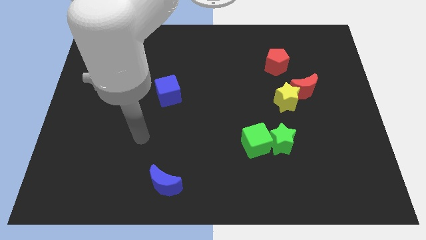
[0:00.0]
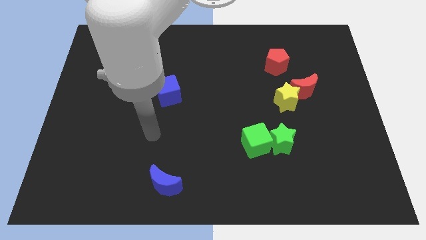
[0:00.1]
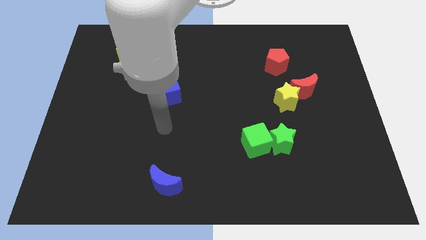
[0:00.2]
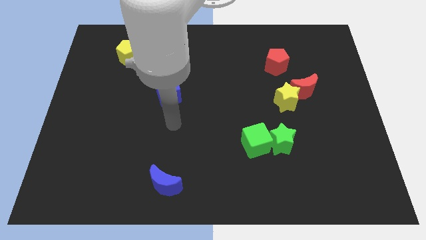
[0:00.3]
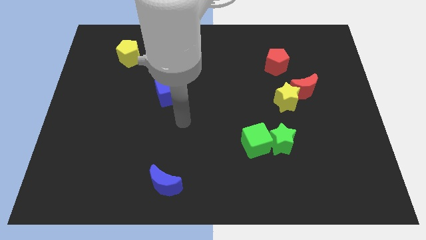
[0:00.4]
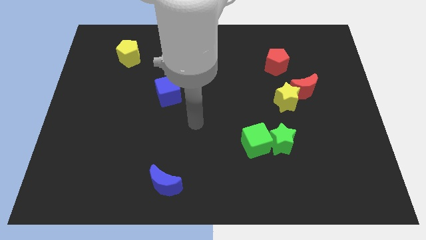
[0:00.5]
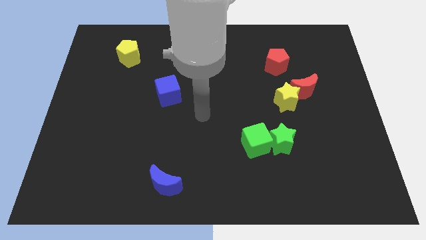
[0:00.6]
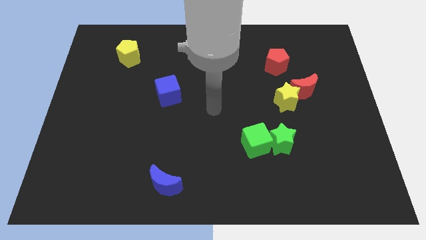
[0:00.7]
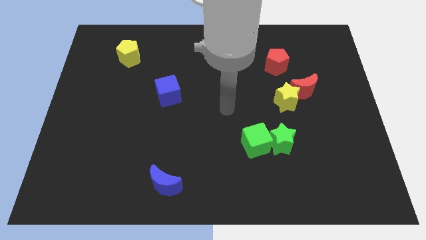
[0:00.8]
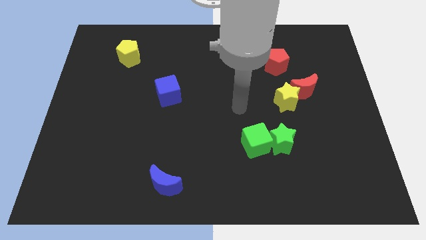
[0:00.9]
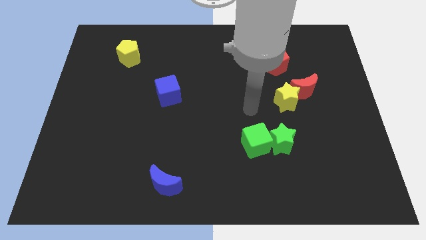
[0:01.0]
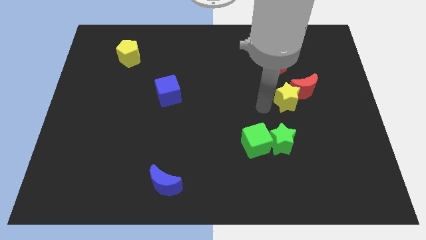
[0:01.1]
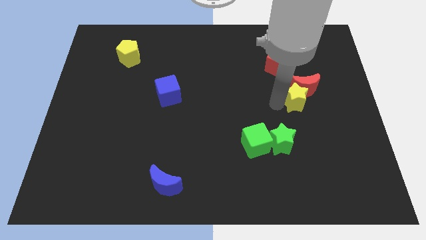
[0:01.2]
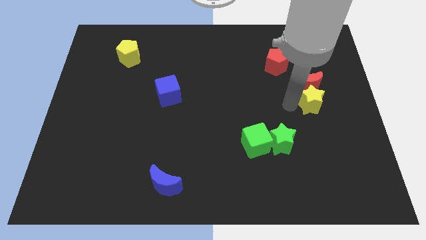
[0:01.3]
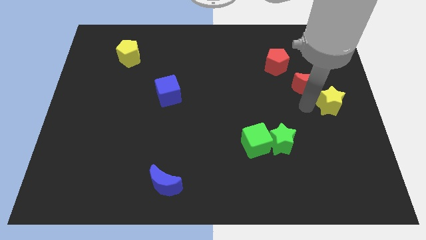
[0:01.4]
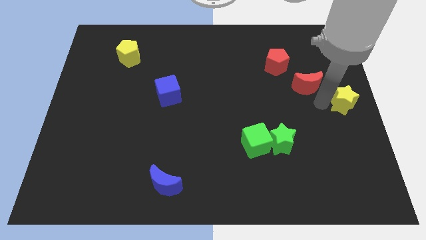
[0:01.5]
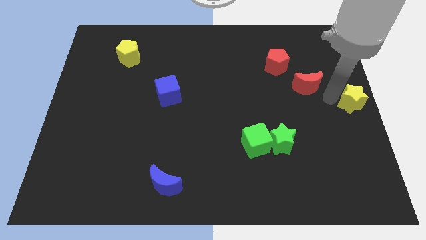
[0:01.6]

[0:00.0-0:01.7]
separate the red moon from the yellow star

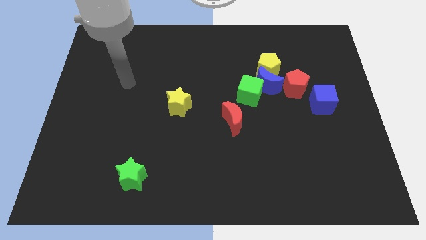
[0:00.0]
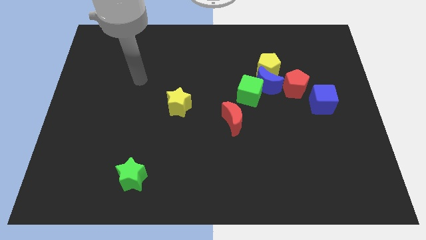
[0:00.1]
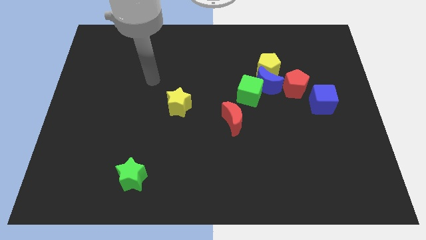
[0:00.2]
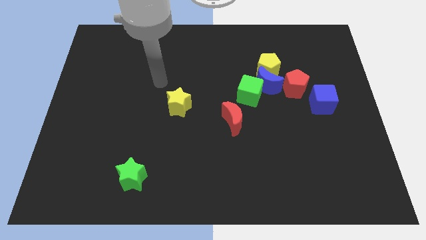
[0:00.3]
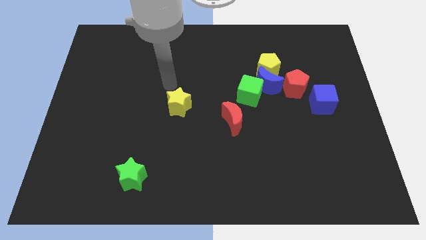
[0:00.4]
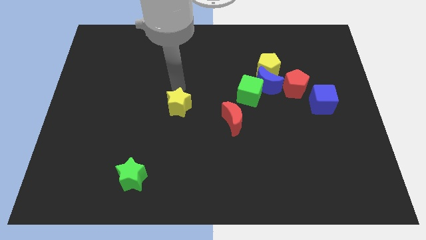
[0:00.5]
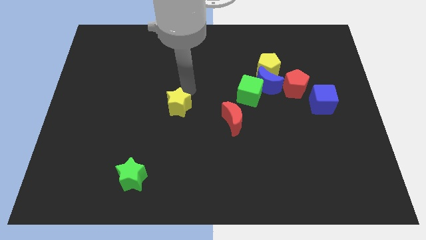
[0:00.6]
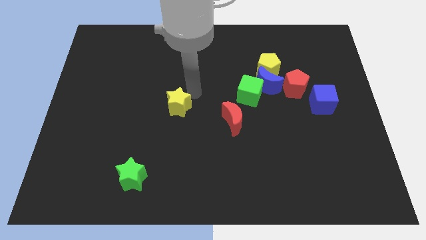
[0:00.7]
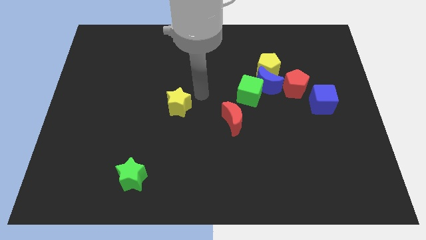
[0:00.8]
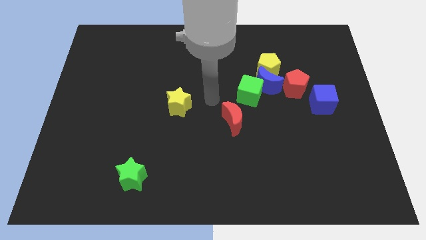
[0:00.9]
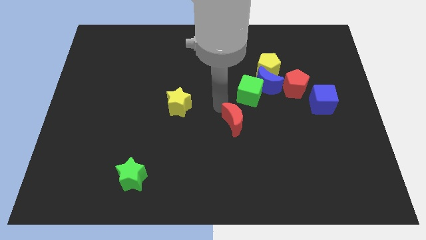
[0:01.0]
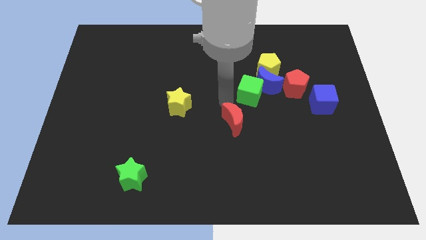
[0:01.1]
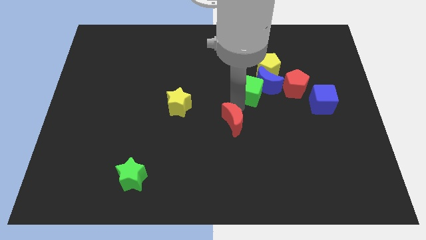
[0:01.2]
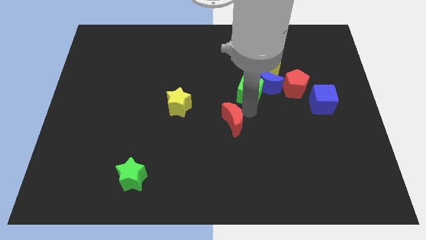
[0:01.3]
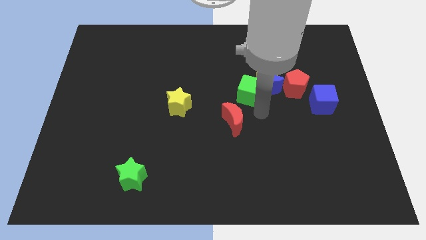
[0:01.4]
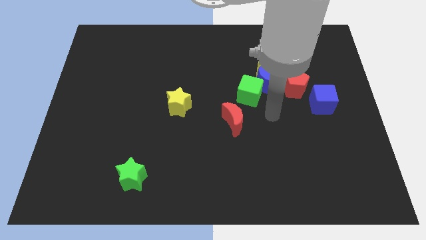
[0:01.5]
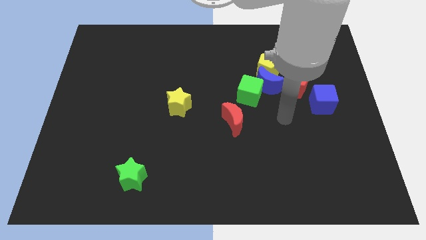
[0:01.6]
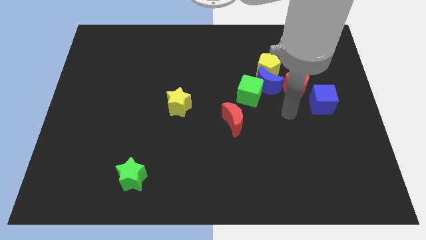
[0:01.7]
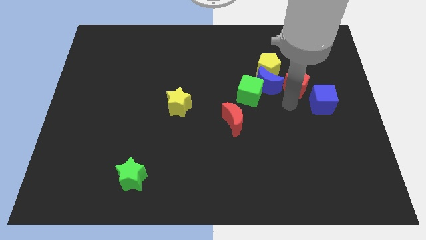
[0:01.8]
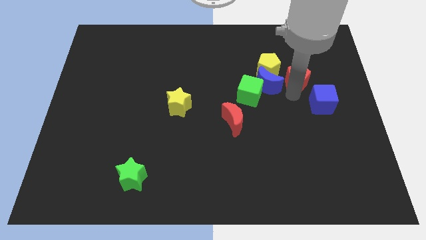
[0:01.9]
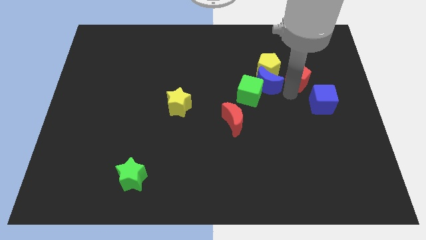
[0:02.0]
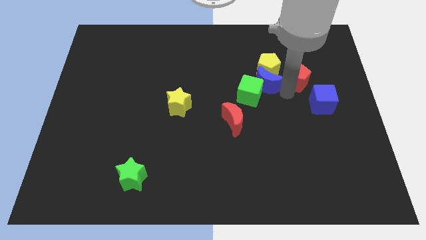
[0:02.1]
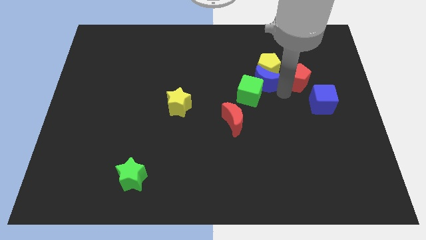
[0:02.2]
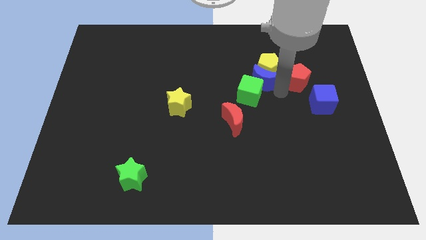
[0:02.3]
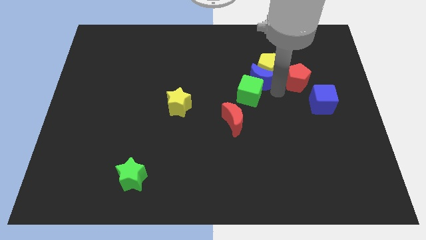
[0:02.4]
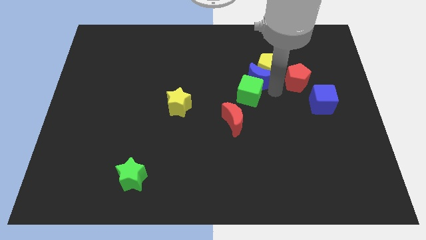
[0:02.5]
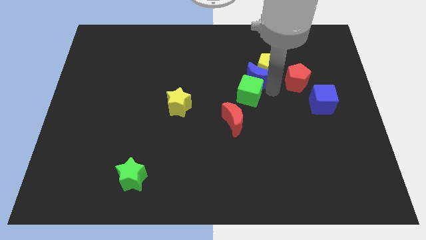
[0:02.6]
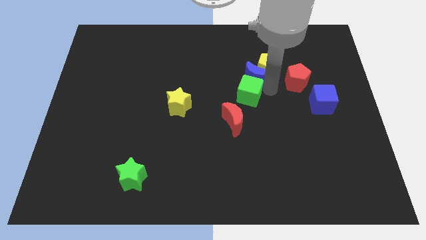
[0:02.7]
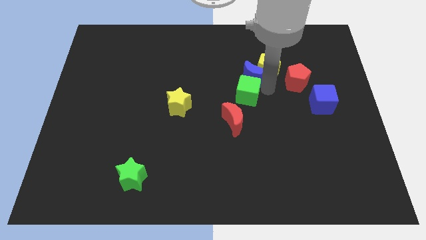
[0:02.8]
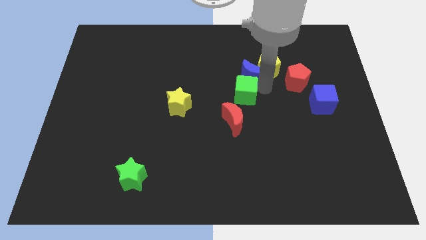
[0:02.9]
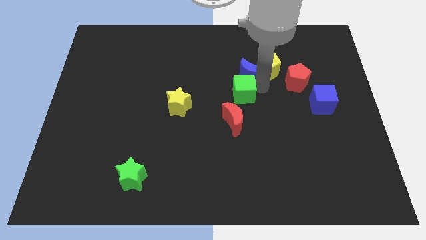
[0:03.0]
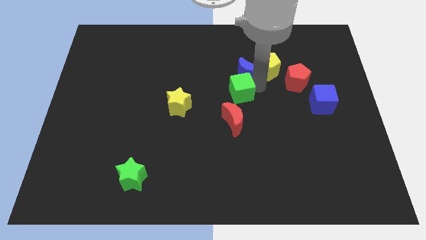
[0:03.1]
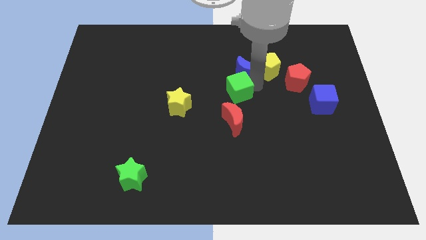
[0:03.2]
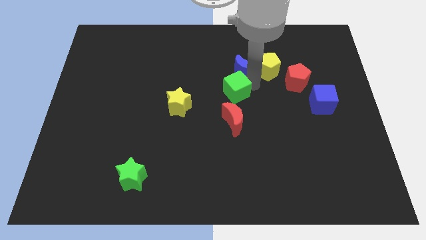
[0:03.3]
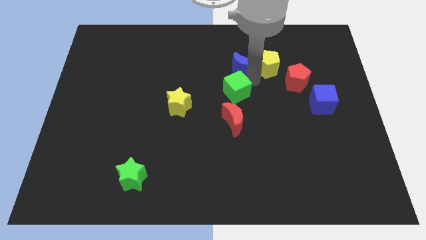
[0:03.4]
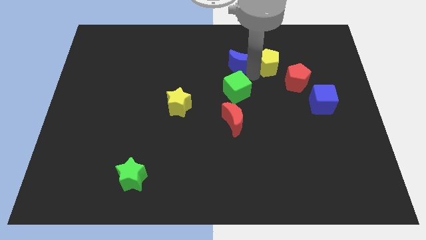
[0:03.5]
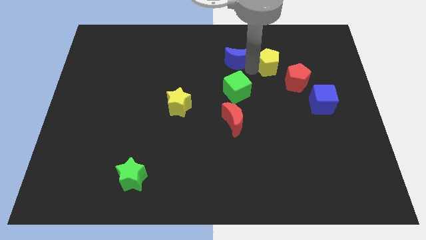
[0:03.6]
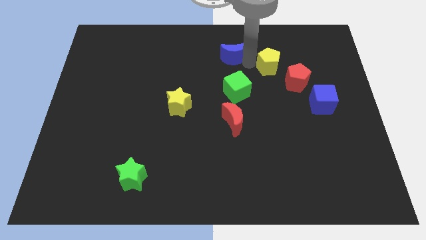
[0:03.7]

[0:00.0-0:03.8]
separate the blue moon from the group of blocks

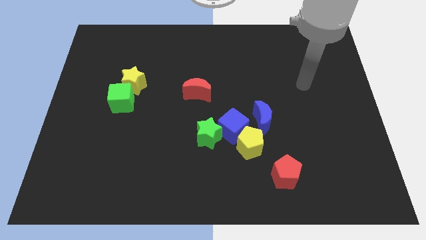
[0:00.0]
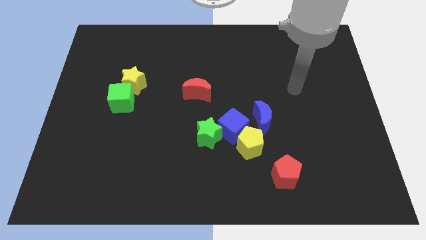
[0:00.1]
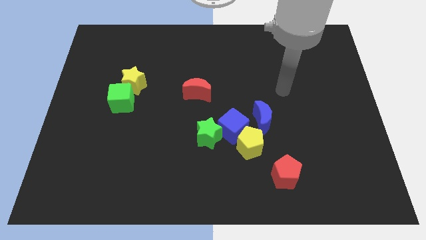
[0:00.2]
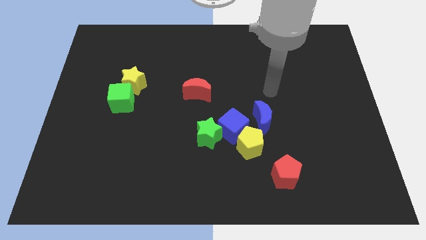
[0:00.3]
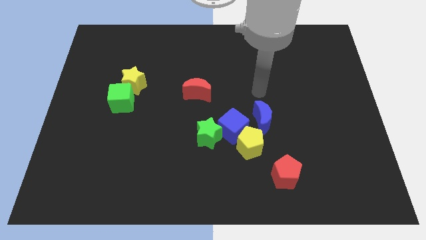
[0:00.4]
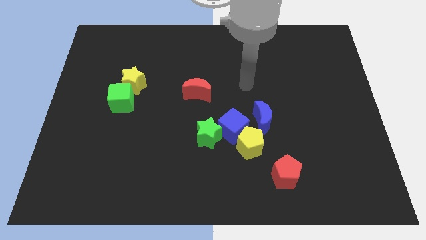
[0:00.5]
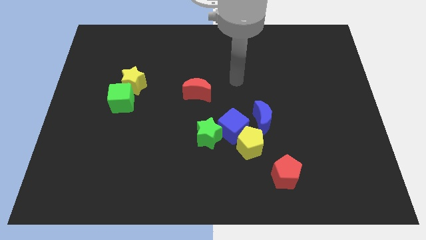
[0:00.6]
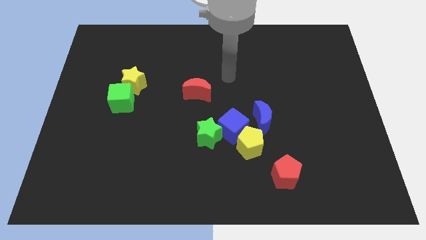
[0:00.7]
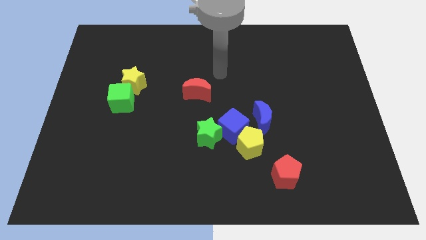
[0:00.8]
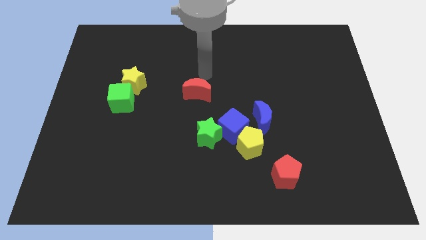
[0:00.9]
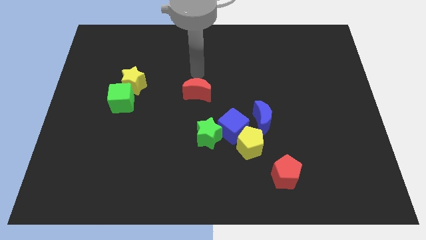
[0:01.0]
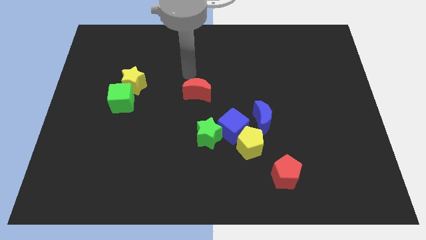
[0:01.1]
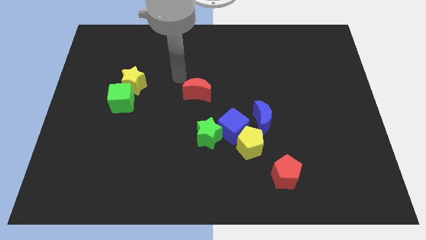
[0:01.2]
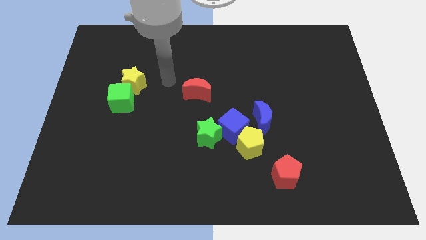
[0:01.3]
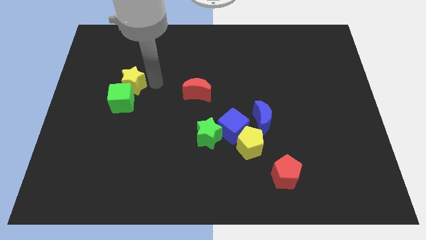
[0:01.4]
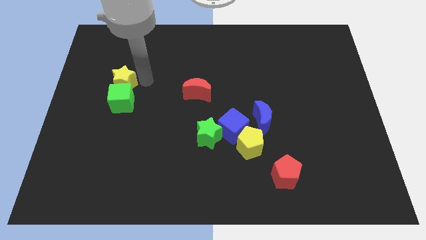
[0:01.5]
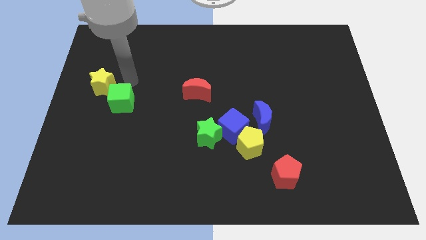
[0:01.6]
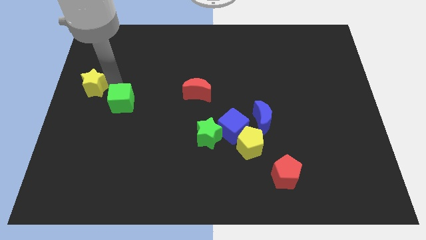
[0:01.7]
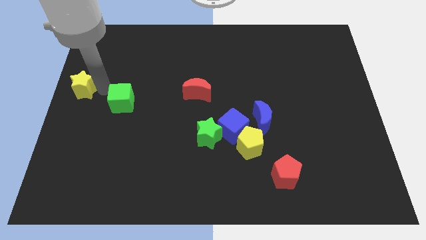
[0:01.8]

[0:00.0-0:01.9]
separate the green cube from the yellow star

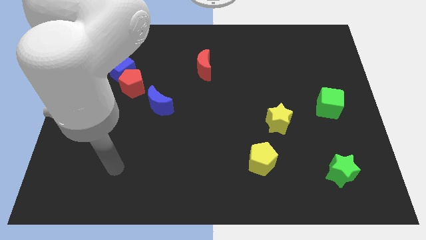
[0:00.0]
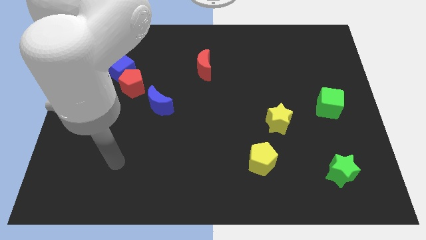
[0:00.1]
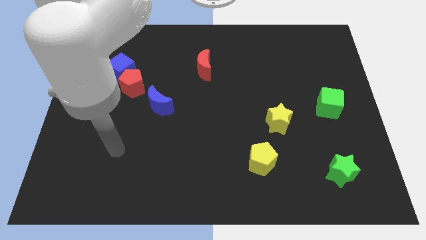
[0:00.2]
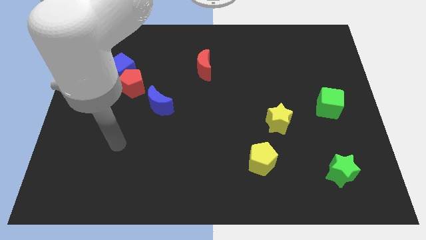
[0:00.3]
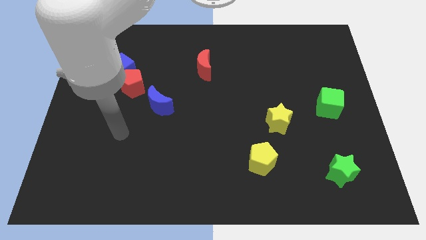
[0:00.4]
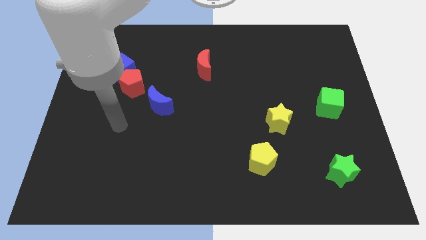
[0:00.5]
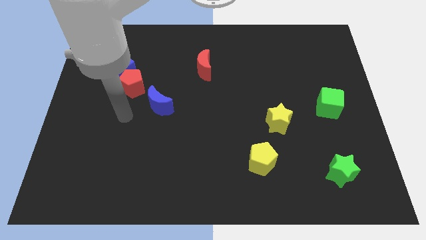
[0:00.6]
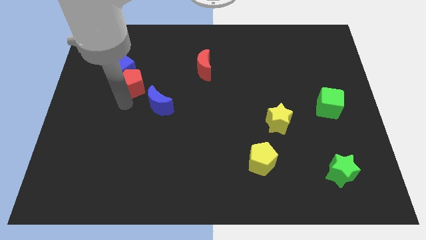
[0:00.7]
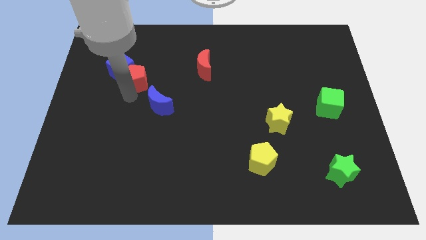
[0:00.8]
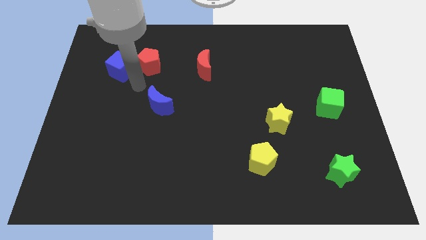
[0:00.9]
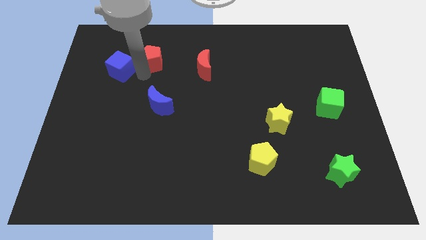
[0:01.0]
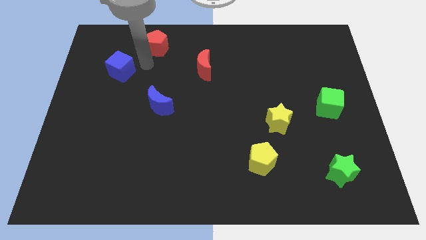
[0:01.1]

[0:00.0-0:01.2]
move the blue cube away from the red pentagon

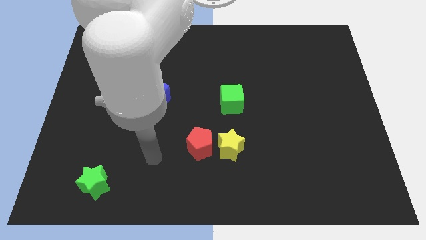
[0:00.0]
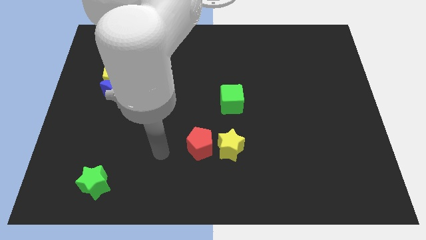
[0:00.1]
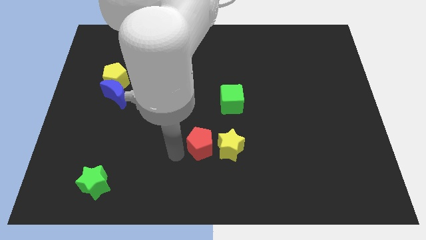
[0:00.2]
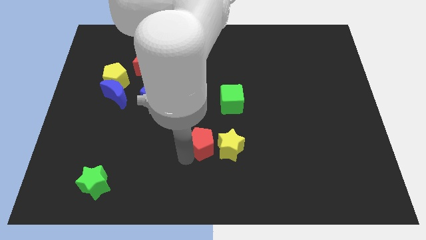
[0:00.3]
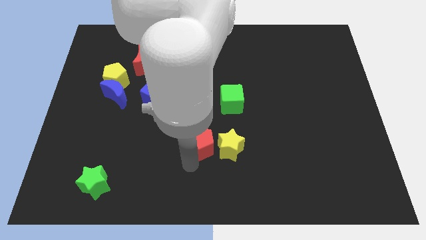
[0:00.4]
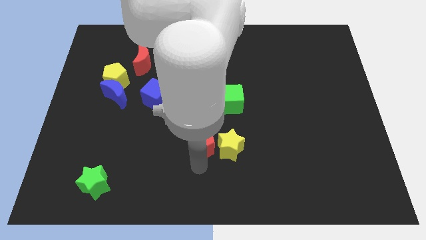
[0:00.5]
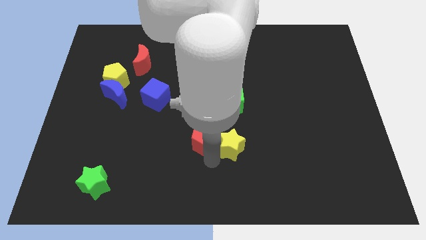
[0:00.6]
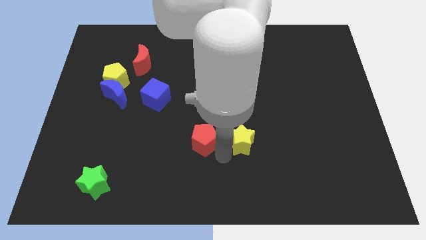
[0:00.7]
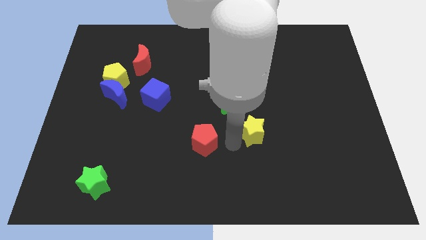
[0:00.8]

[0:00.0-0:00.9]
move the red pentagon away from the yellow star
